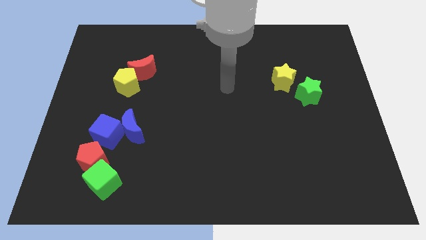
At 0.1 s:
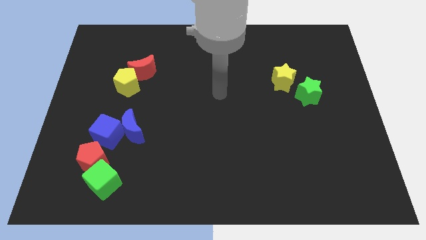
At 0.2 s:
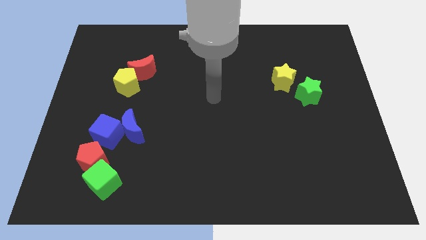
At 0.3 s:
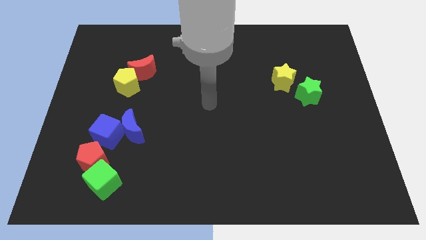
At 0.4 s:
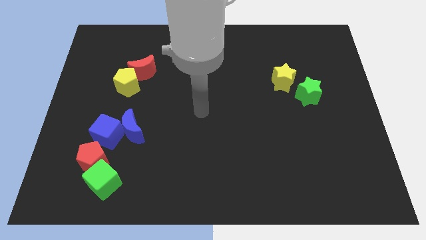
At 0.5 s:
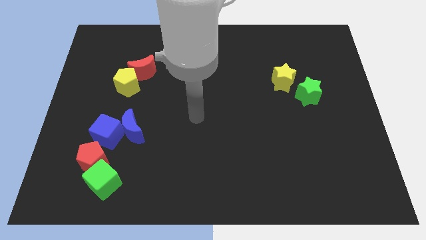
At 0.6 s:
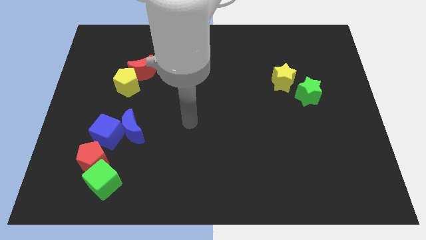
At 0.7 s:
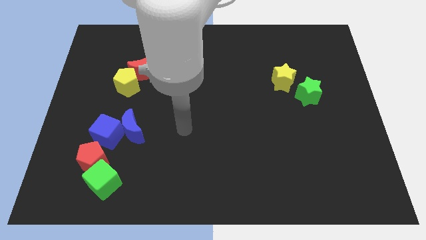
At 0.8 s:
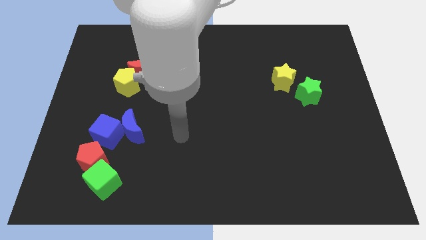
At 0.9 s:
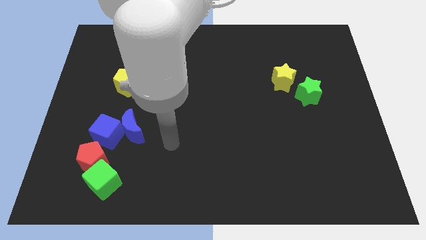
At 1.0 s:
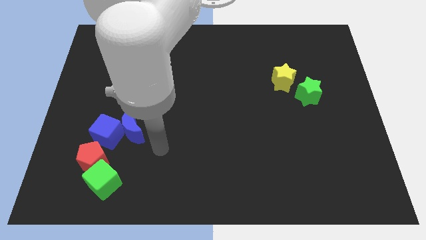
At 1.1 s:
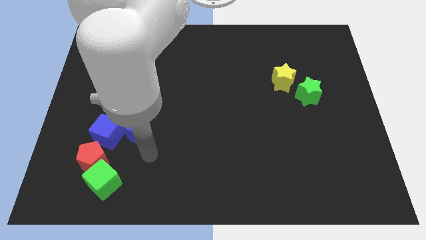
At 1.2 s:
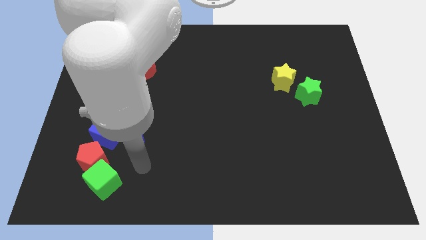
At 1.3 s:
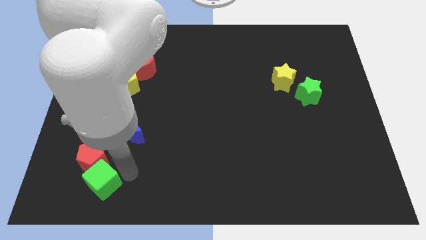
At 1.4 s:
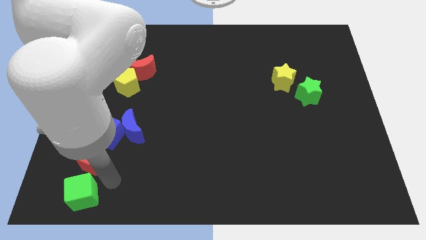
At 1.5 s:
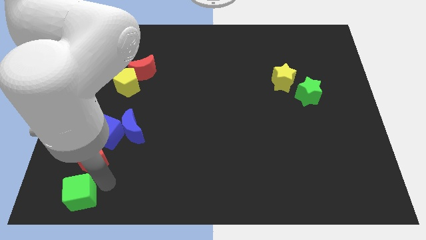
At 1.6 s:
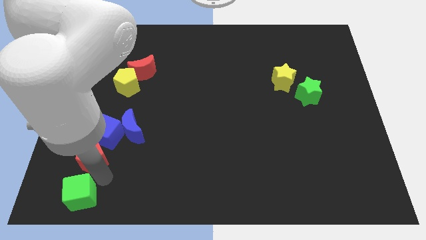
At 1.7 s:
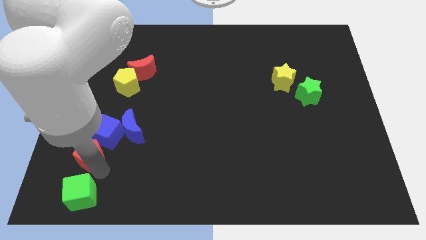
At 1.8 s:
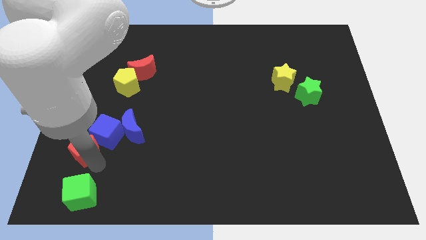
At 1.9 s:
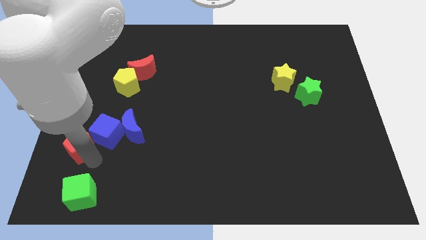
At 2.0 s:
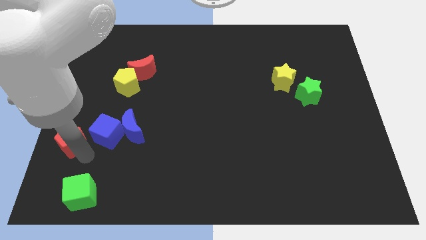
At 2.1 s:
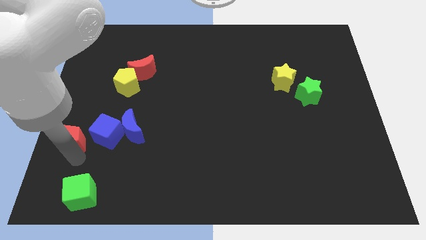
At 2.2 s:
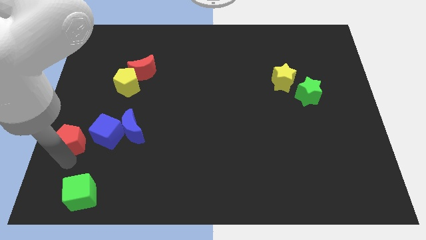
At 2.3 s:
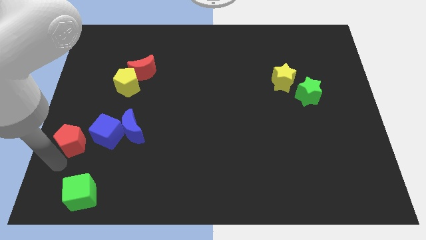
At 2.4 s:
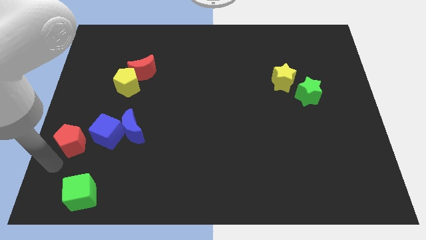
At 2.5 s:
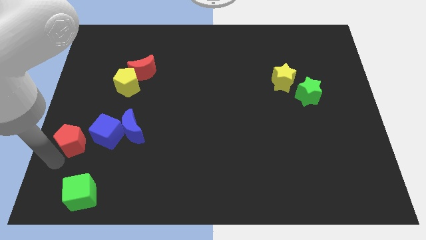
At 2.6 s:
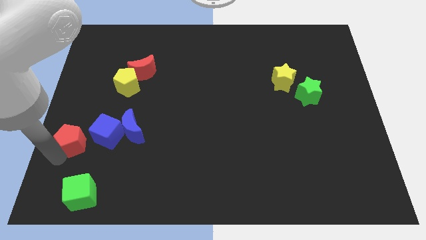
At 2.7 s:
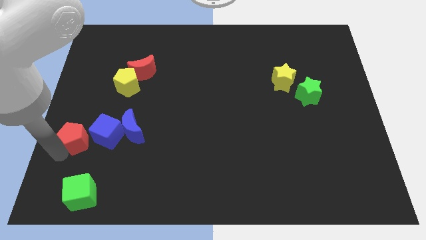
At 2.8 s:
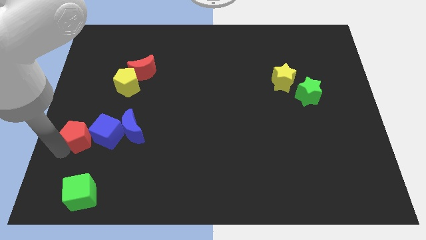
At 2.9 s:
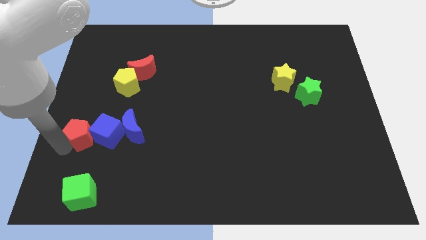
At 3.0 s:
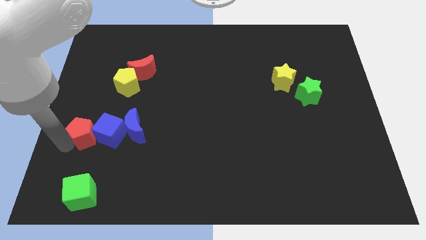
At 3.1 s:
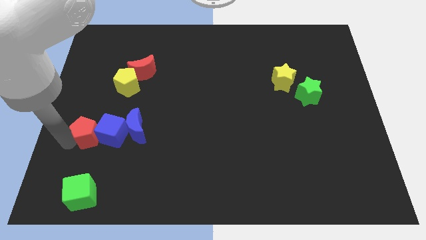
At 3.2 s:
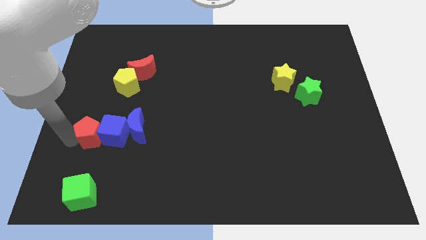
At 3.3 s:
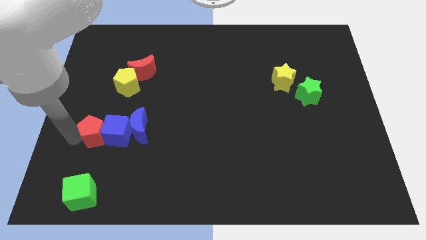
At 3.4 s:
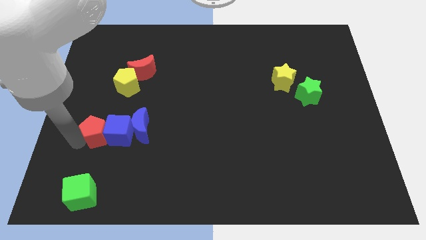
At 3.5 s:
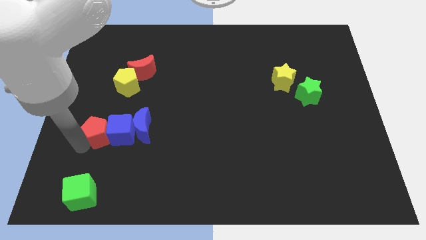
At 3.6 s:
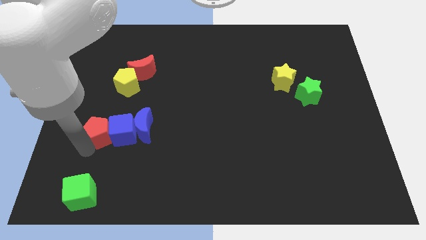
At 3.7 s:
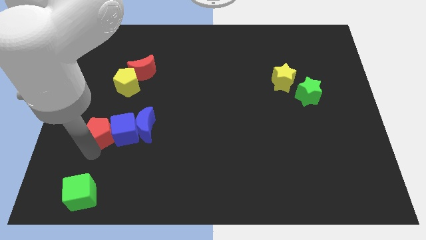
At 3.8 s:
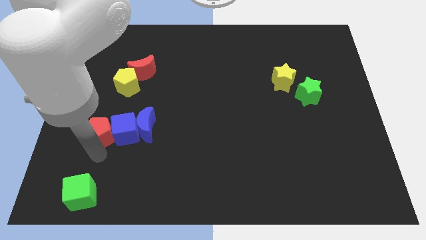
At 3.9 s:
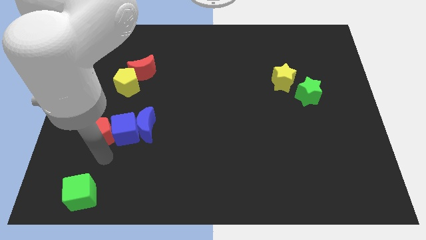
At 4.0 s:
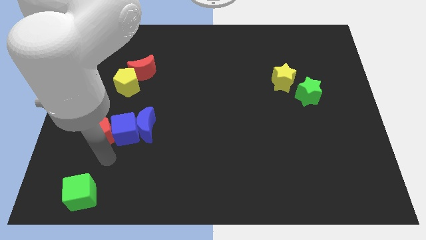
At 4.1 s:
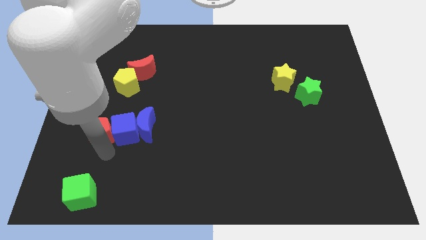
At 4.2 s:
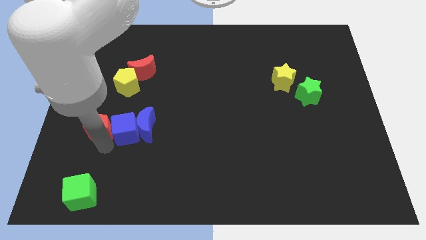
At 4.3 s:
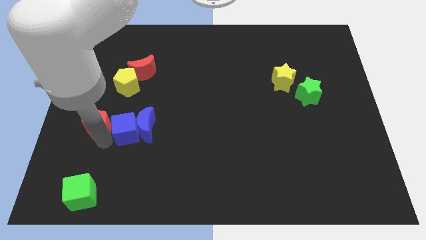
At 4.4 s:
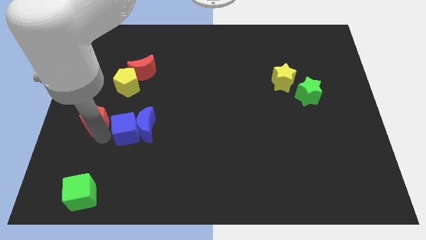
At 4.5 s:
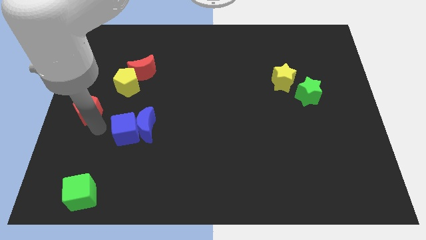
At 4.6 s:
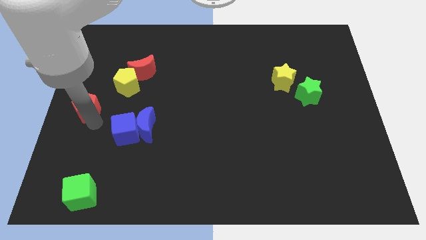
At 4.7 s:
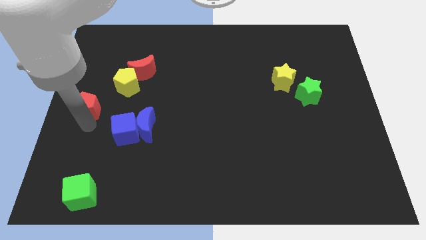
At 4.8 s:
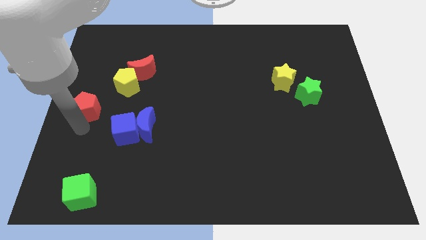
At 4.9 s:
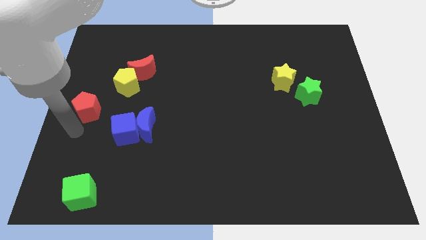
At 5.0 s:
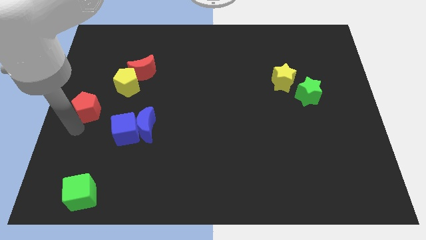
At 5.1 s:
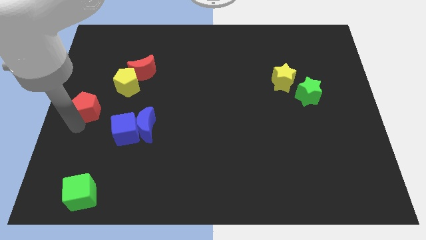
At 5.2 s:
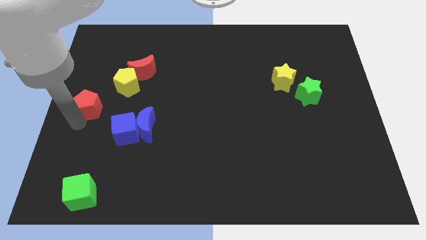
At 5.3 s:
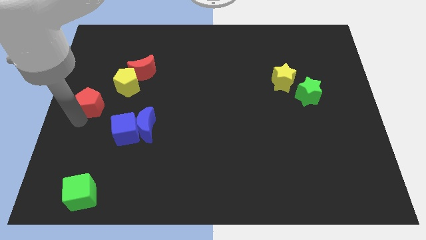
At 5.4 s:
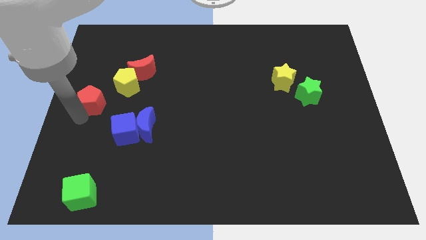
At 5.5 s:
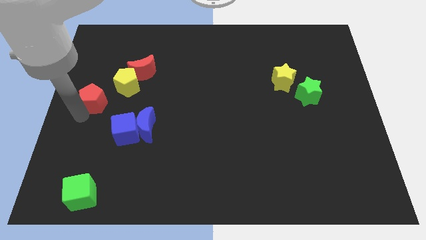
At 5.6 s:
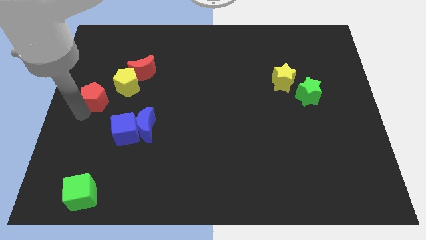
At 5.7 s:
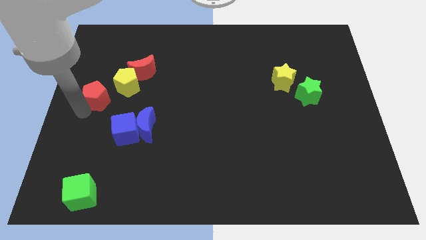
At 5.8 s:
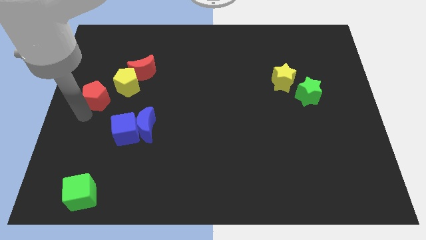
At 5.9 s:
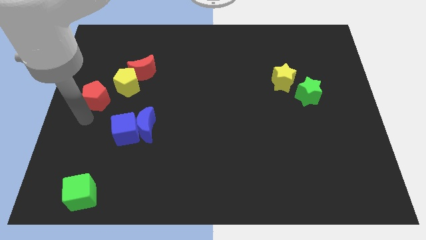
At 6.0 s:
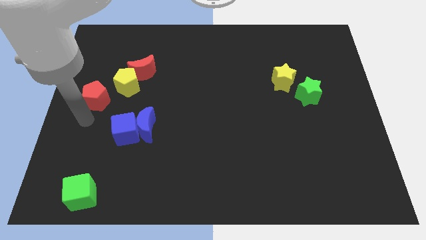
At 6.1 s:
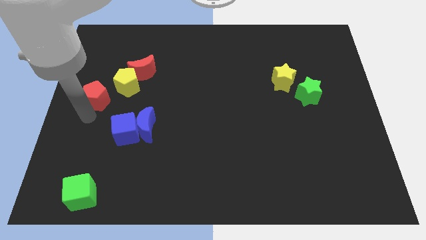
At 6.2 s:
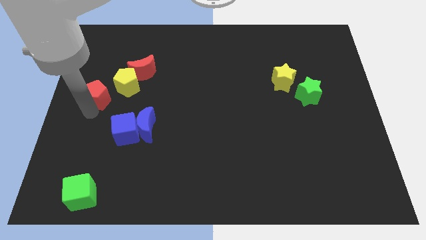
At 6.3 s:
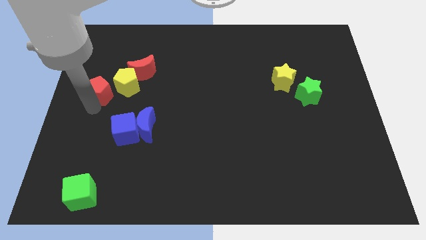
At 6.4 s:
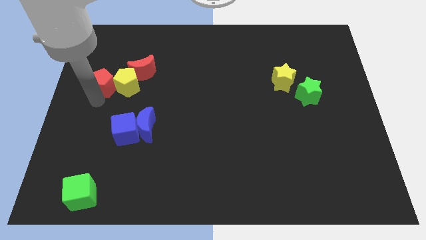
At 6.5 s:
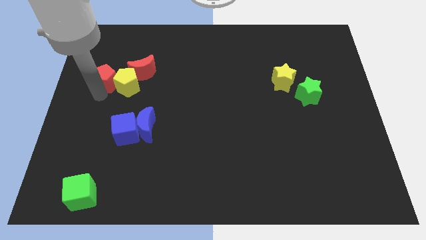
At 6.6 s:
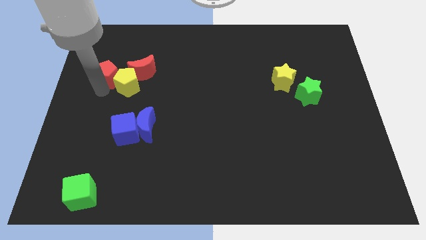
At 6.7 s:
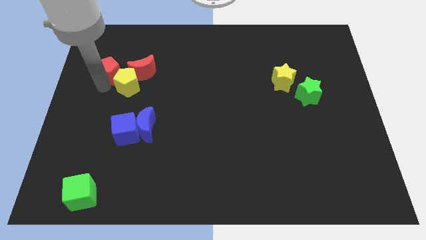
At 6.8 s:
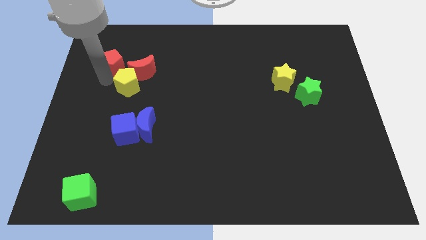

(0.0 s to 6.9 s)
slide the red pentagon to the top of the yellow pentagon
